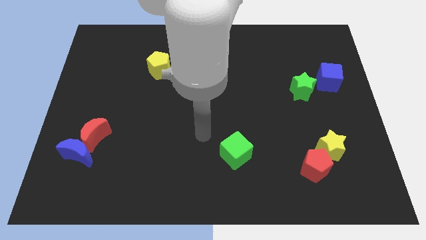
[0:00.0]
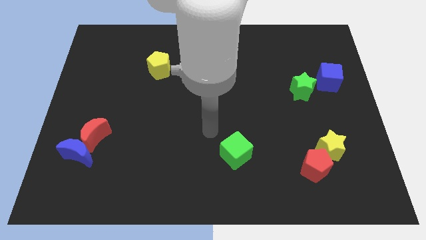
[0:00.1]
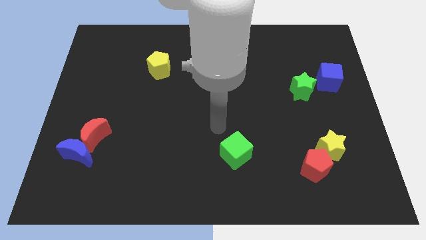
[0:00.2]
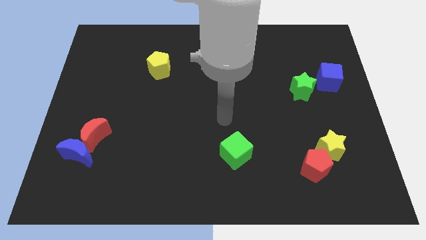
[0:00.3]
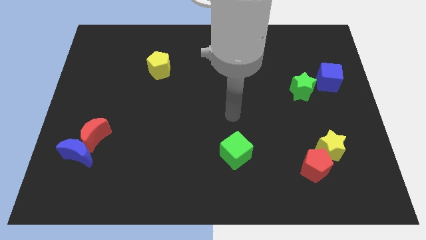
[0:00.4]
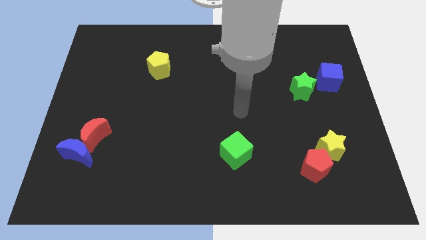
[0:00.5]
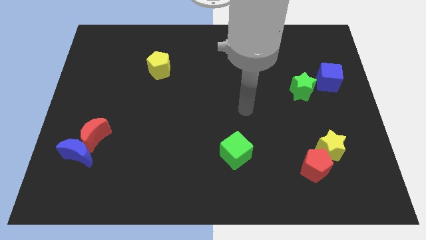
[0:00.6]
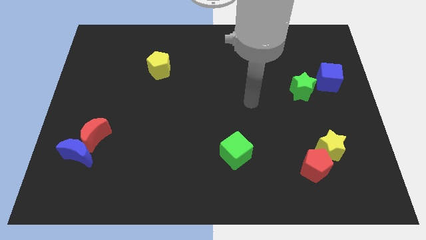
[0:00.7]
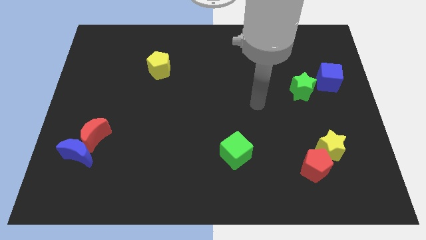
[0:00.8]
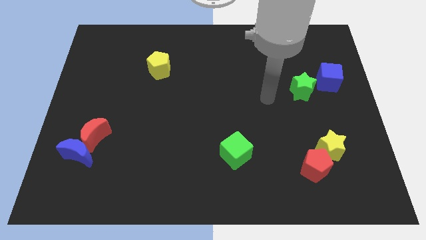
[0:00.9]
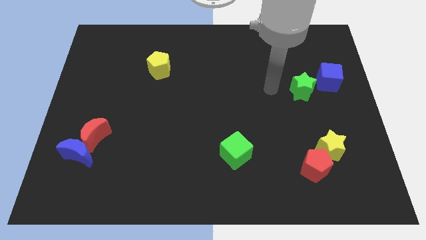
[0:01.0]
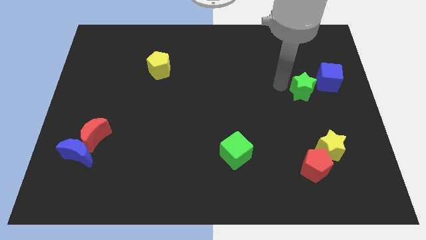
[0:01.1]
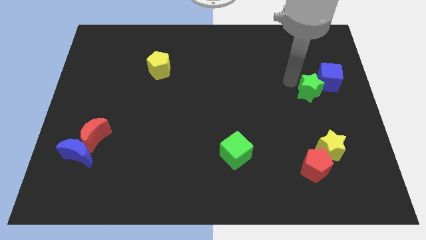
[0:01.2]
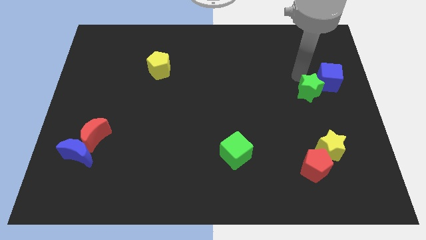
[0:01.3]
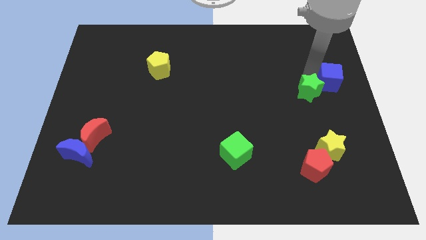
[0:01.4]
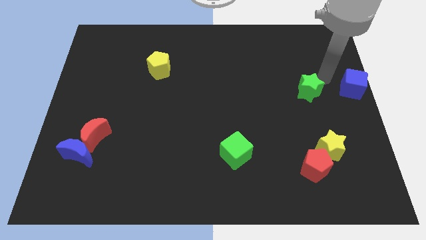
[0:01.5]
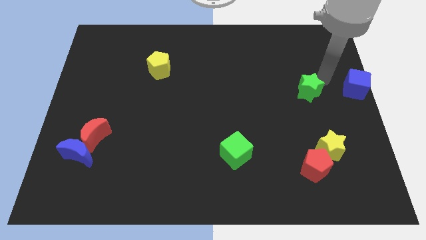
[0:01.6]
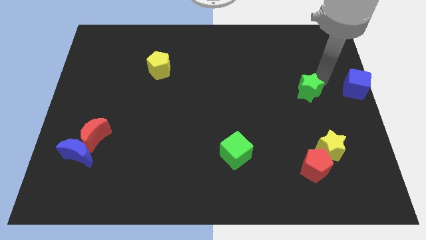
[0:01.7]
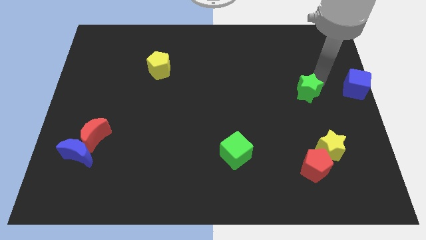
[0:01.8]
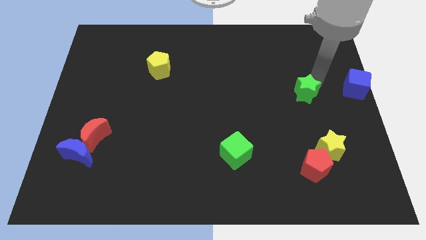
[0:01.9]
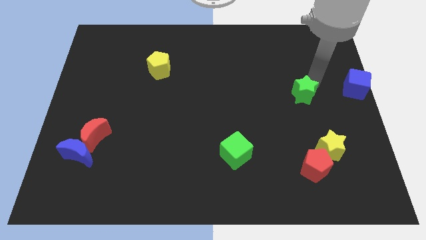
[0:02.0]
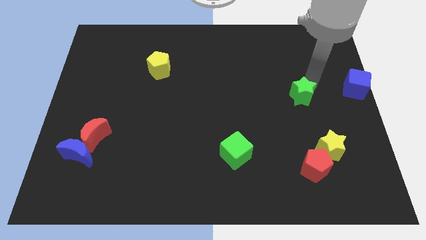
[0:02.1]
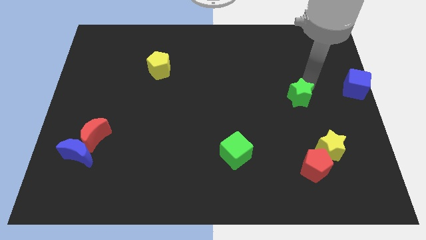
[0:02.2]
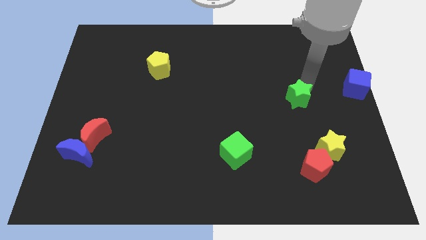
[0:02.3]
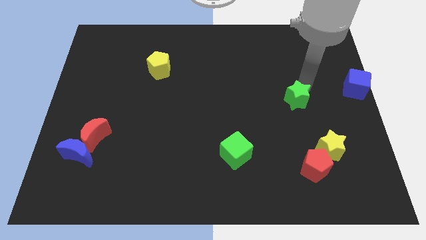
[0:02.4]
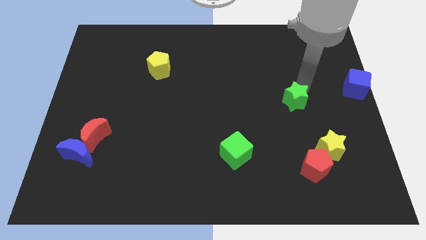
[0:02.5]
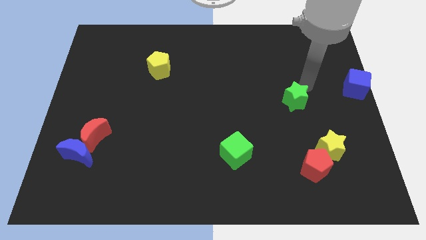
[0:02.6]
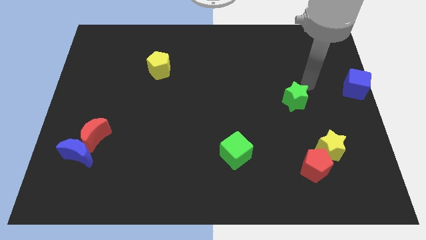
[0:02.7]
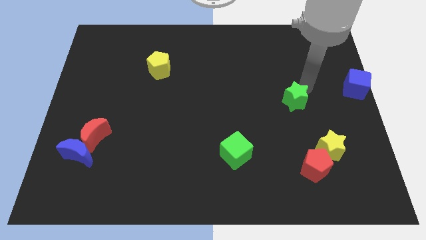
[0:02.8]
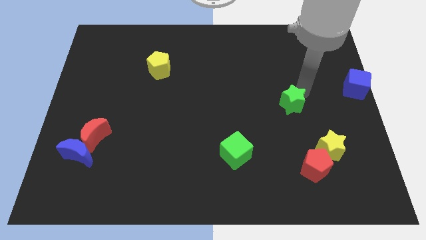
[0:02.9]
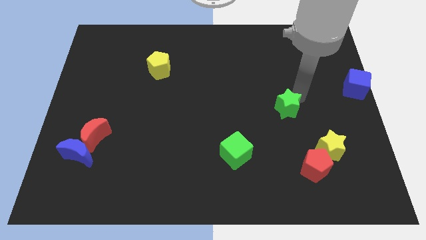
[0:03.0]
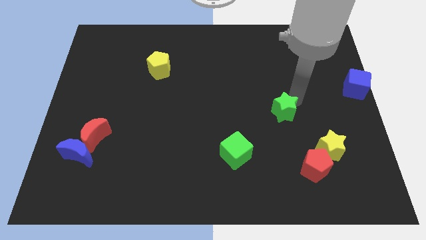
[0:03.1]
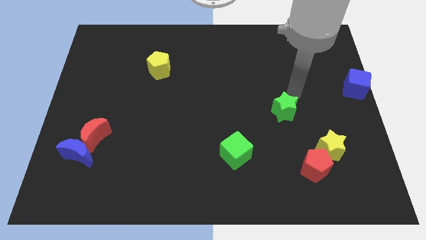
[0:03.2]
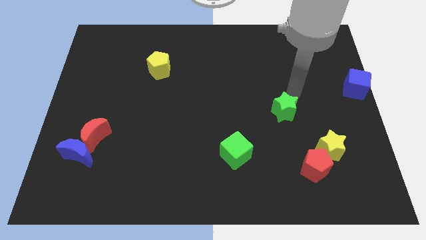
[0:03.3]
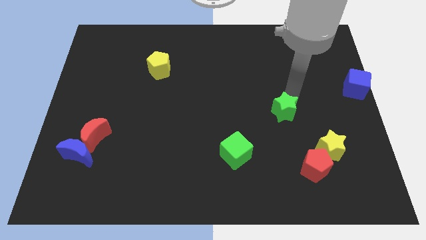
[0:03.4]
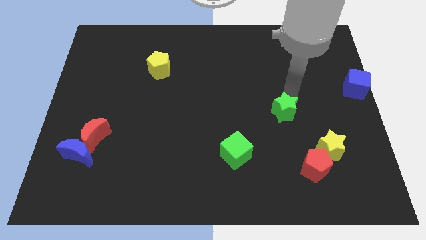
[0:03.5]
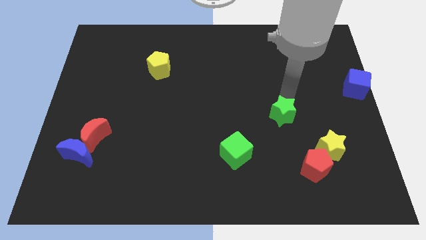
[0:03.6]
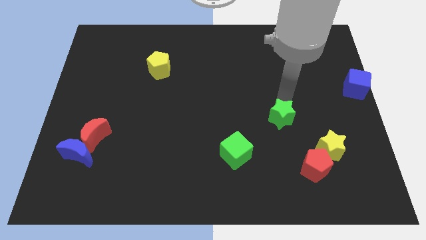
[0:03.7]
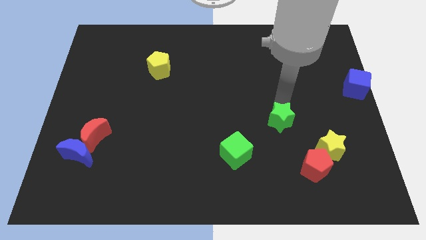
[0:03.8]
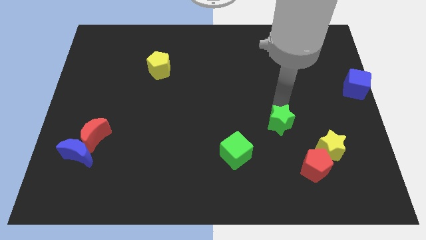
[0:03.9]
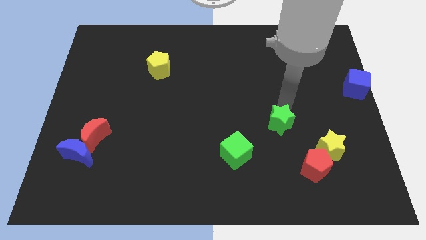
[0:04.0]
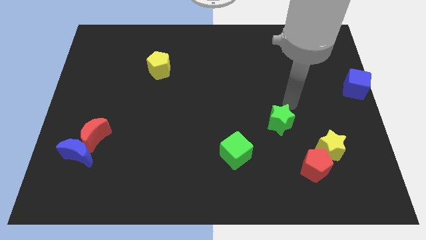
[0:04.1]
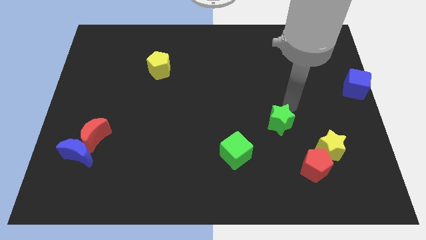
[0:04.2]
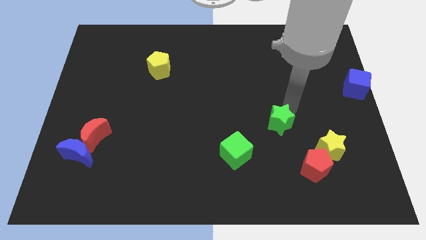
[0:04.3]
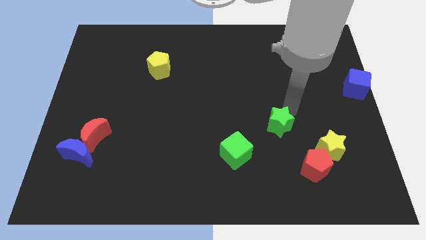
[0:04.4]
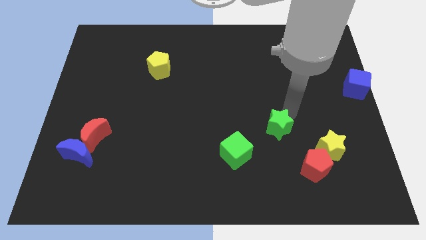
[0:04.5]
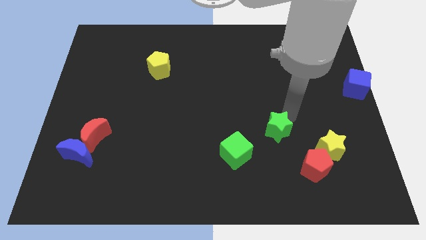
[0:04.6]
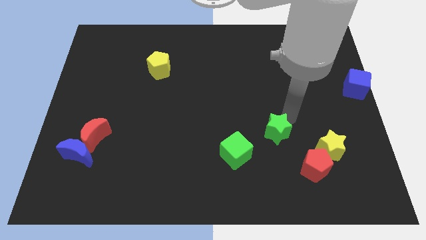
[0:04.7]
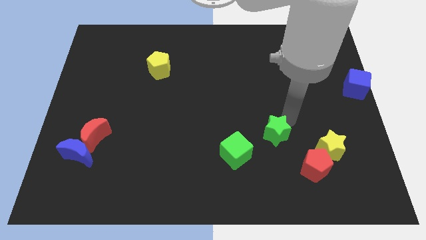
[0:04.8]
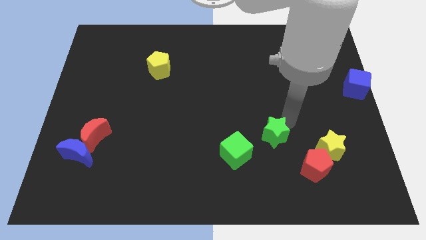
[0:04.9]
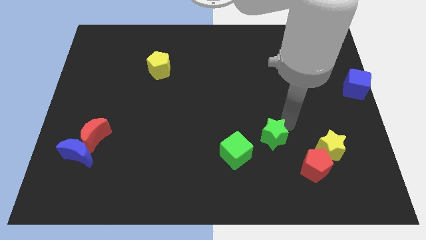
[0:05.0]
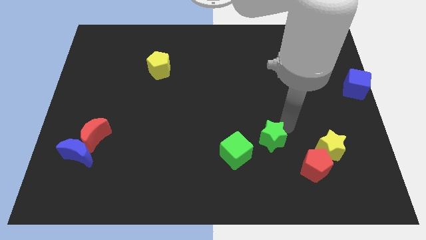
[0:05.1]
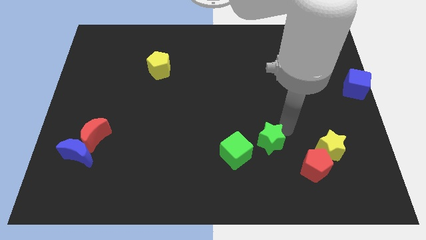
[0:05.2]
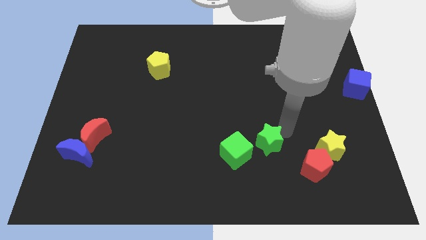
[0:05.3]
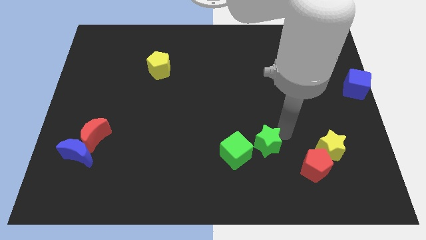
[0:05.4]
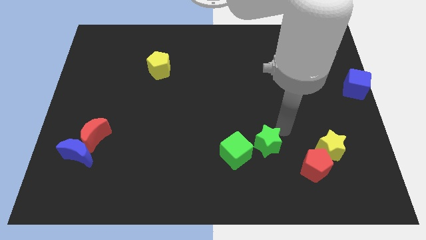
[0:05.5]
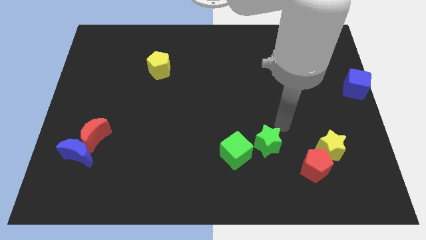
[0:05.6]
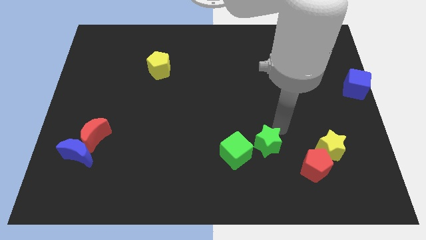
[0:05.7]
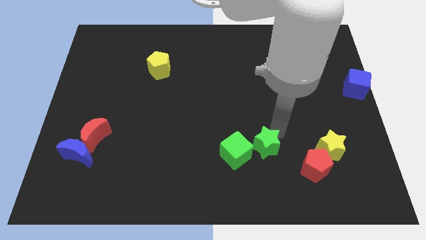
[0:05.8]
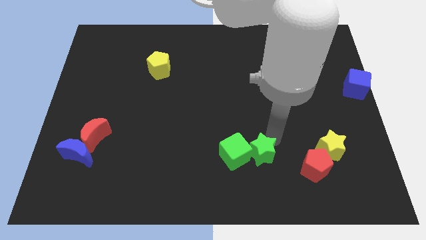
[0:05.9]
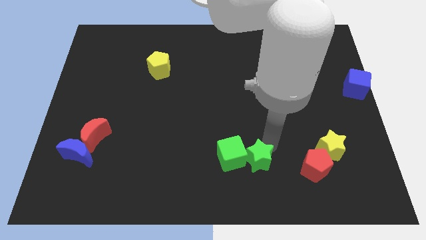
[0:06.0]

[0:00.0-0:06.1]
slide the green star downwards and to the left diagonally

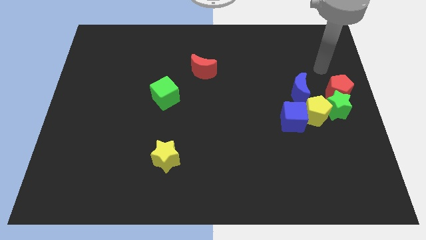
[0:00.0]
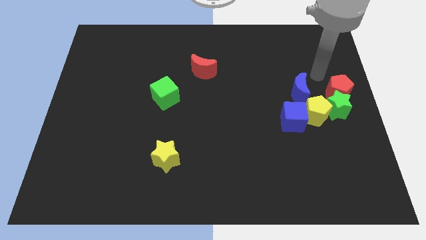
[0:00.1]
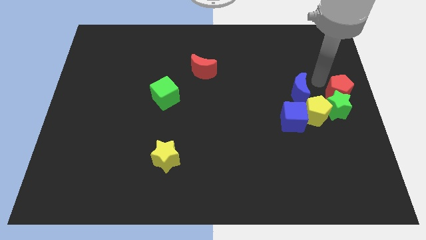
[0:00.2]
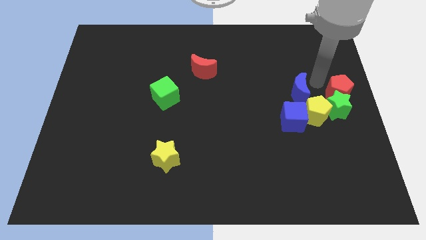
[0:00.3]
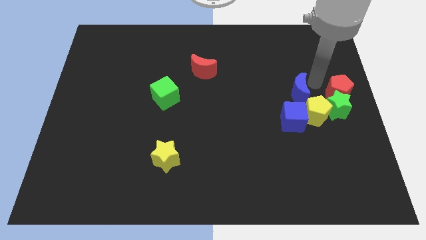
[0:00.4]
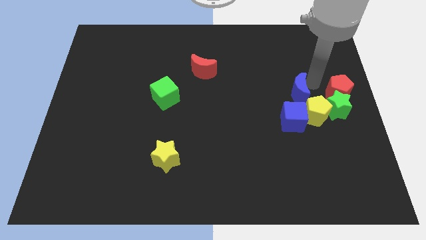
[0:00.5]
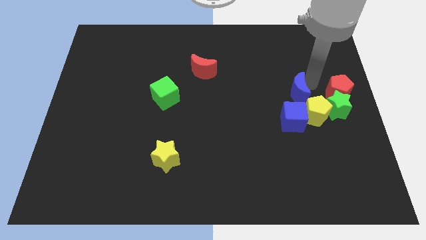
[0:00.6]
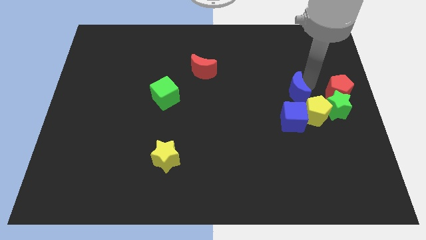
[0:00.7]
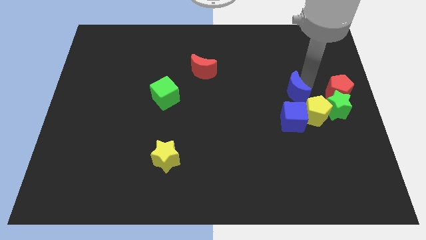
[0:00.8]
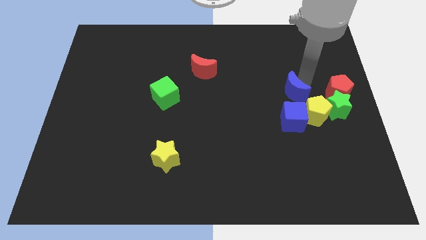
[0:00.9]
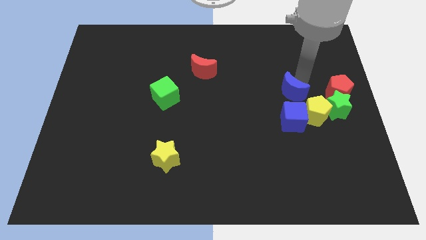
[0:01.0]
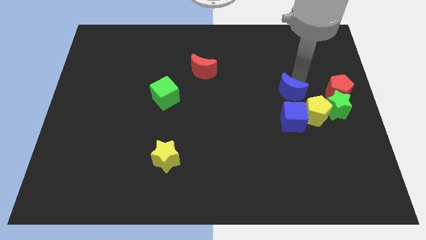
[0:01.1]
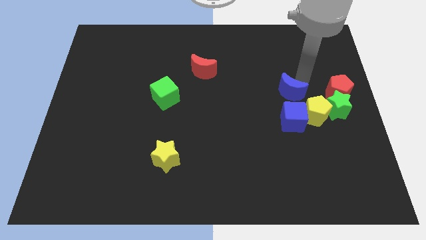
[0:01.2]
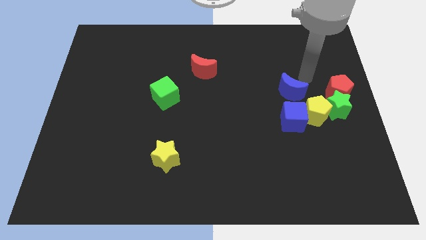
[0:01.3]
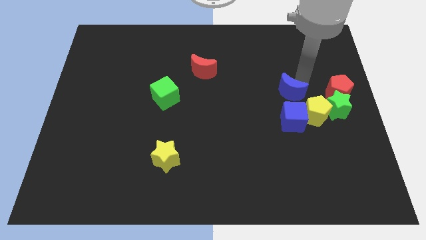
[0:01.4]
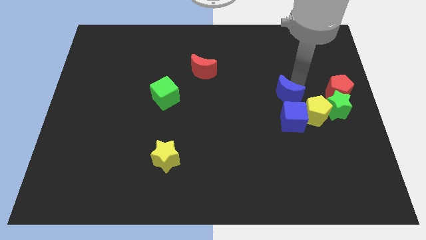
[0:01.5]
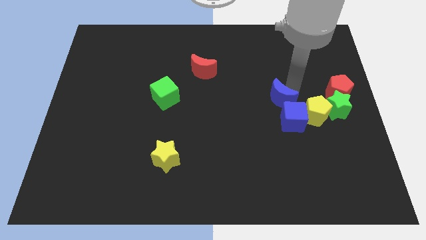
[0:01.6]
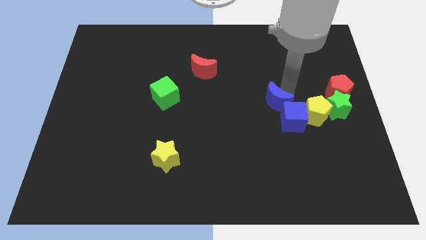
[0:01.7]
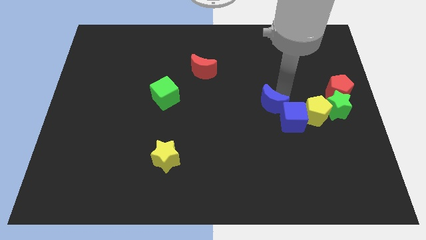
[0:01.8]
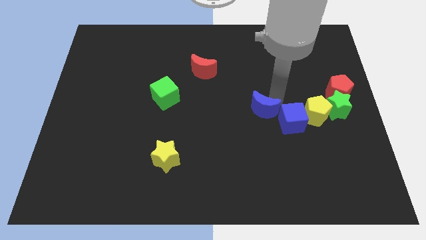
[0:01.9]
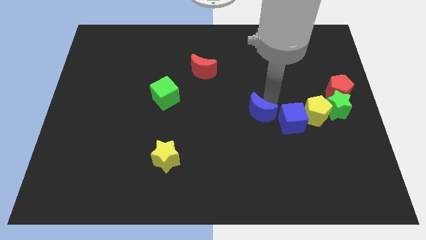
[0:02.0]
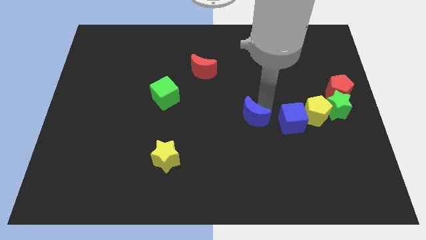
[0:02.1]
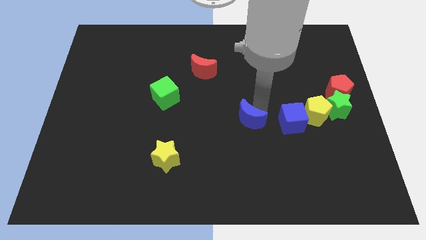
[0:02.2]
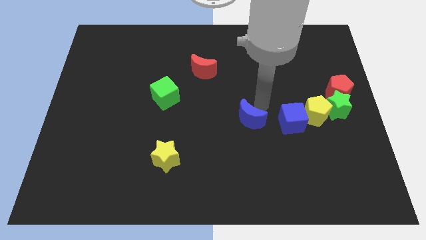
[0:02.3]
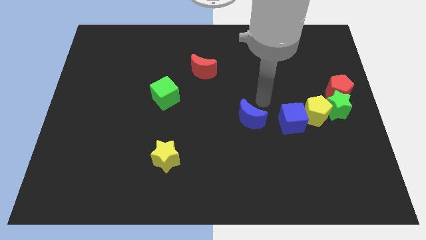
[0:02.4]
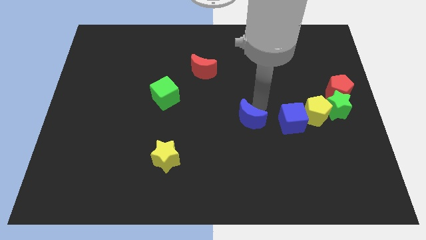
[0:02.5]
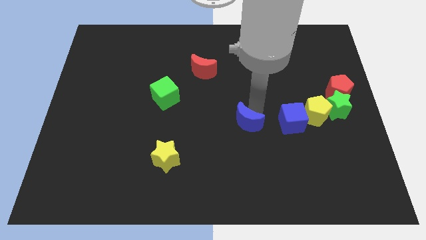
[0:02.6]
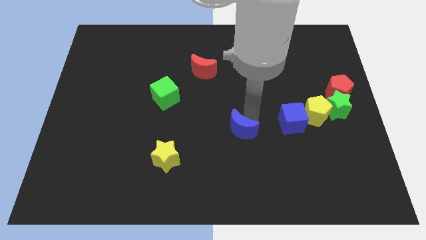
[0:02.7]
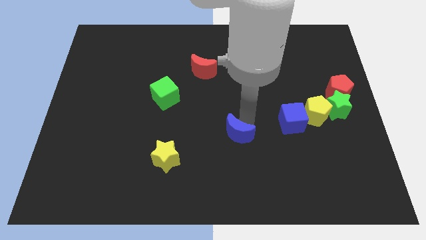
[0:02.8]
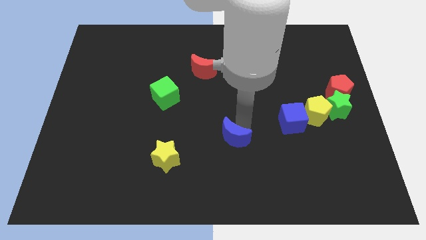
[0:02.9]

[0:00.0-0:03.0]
slide the blue moon down and left
